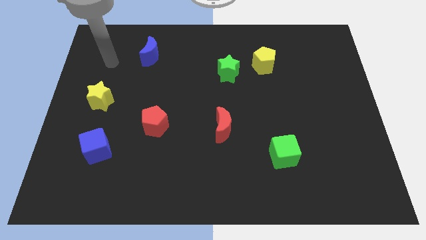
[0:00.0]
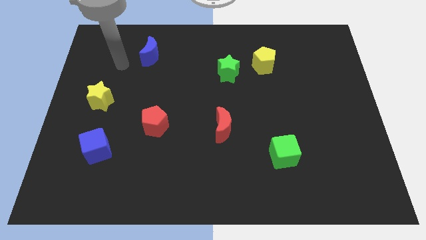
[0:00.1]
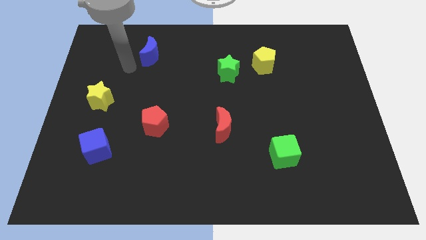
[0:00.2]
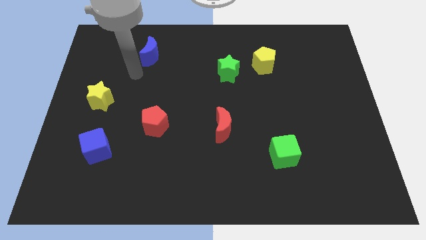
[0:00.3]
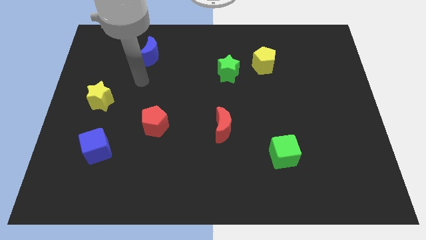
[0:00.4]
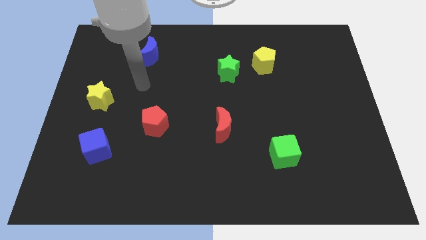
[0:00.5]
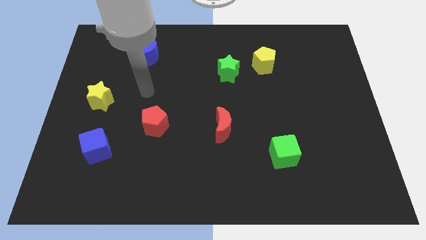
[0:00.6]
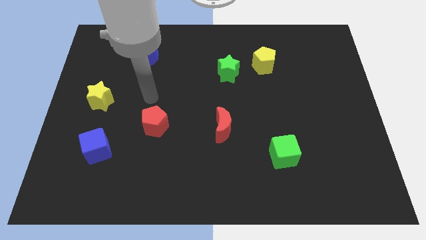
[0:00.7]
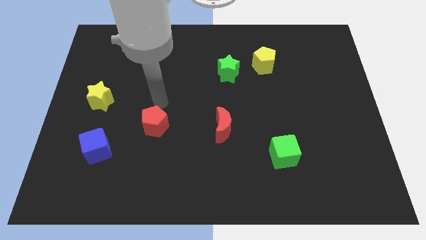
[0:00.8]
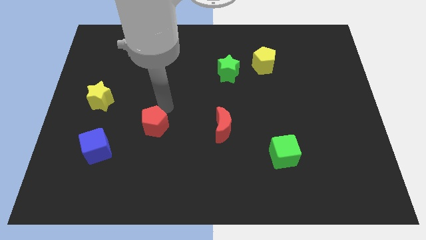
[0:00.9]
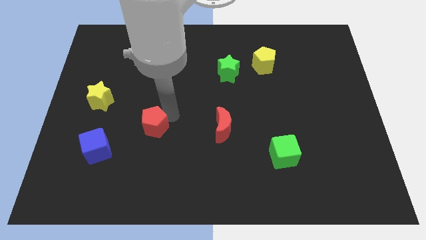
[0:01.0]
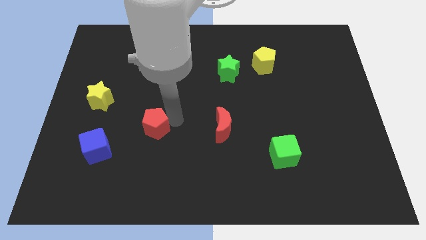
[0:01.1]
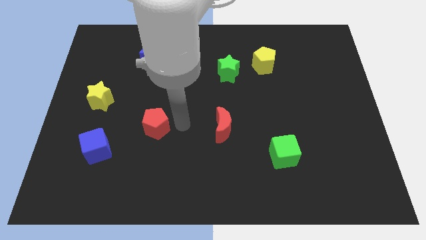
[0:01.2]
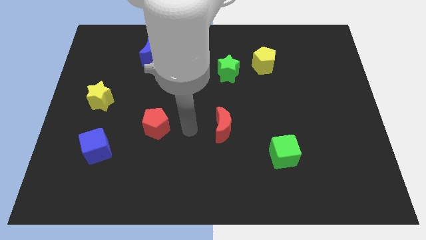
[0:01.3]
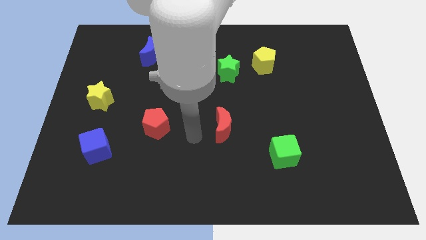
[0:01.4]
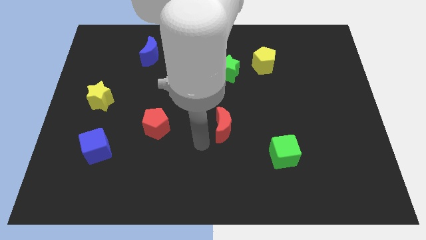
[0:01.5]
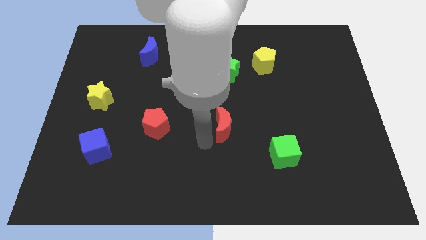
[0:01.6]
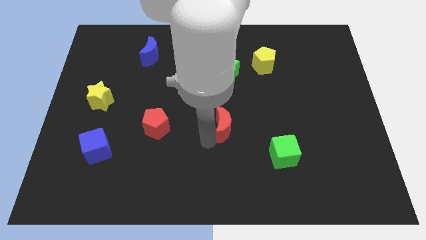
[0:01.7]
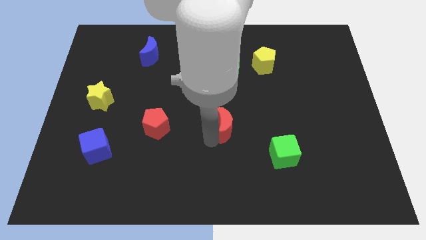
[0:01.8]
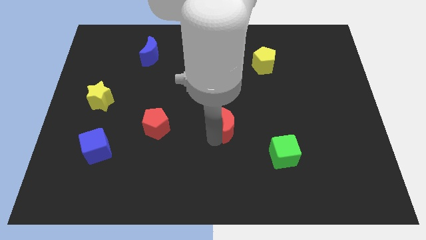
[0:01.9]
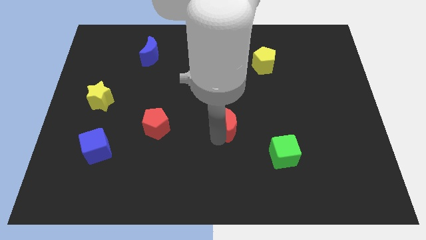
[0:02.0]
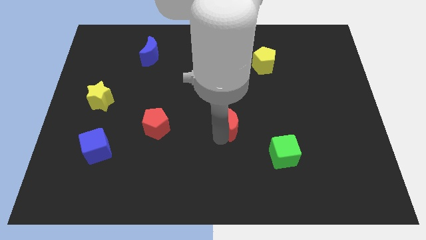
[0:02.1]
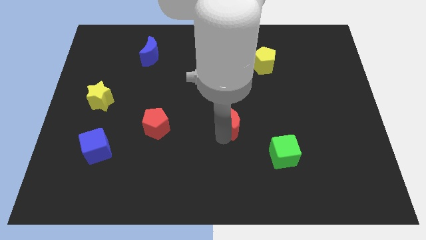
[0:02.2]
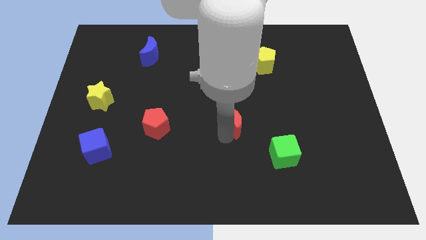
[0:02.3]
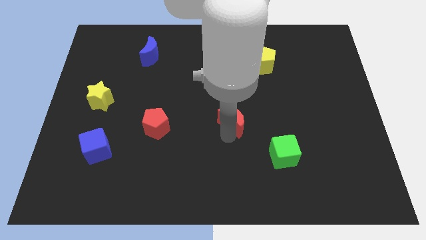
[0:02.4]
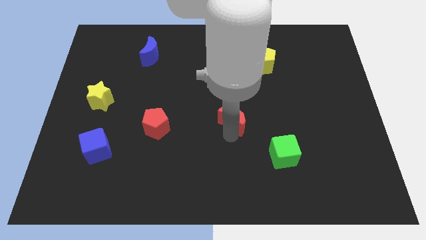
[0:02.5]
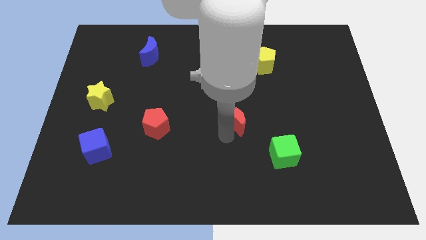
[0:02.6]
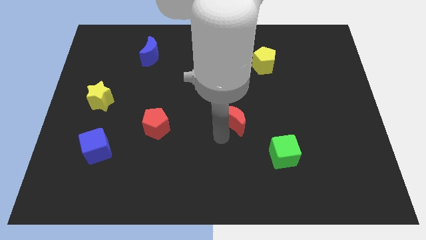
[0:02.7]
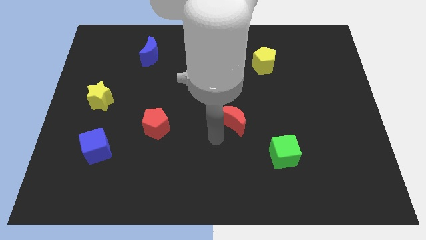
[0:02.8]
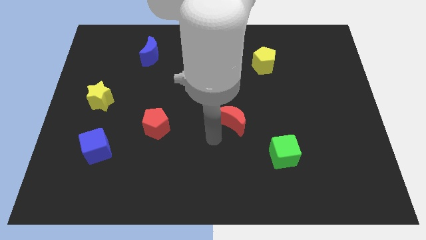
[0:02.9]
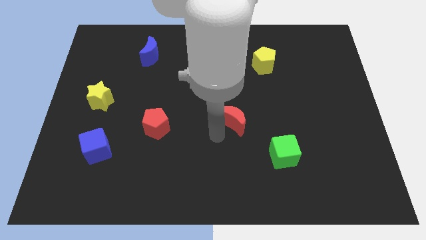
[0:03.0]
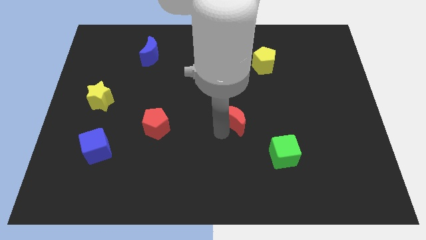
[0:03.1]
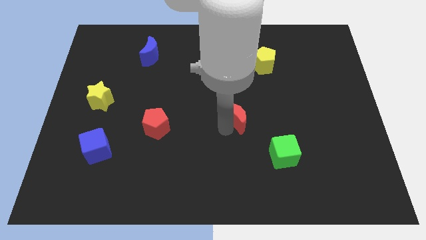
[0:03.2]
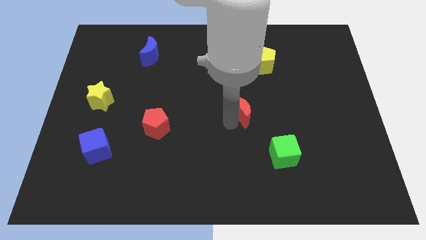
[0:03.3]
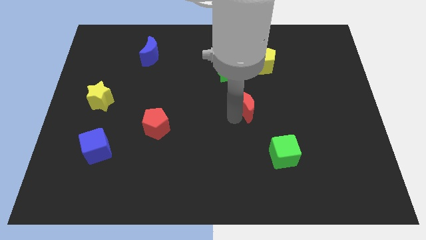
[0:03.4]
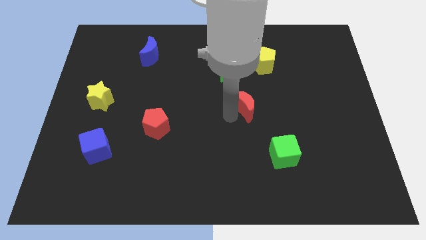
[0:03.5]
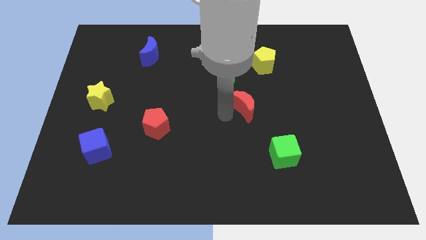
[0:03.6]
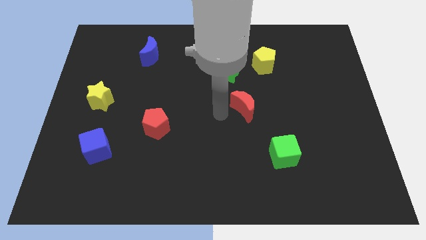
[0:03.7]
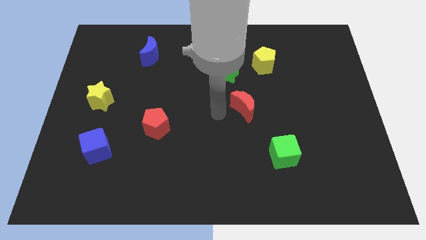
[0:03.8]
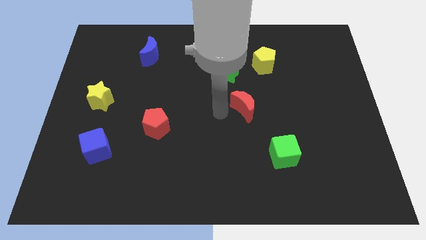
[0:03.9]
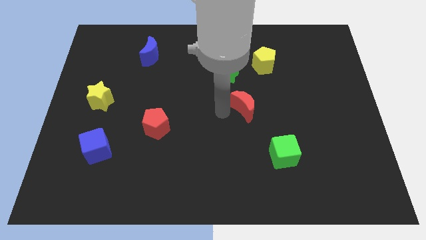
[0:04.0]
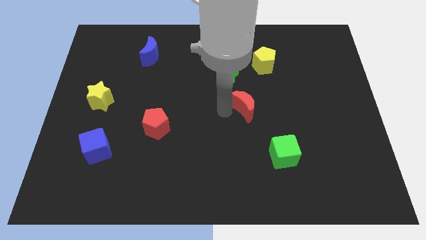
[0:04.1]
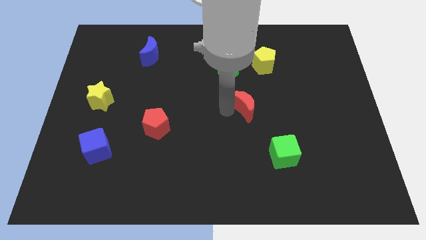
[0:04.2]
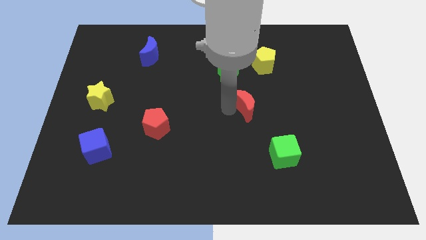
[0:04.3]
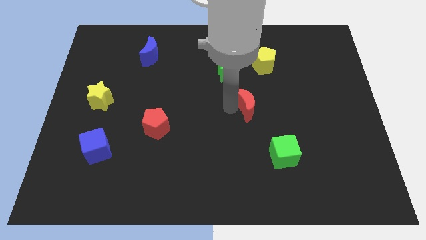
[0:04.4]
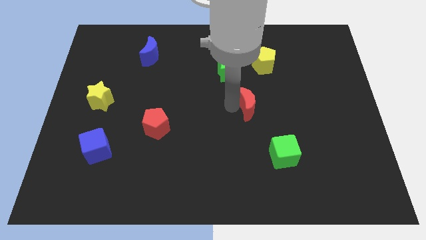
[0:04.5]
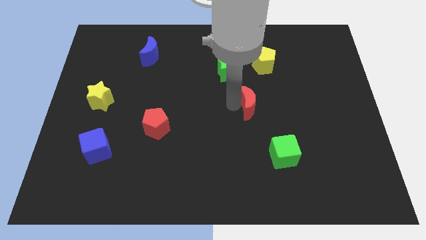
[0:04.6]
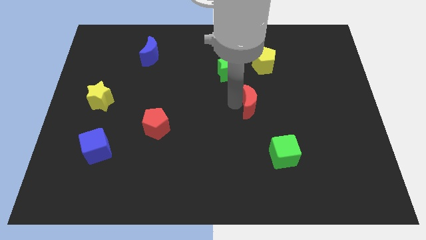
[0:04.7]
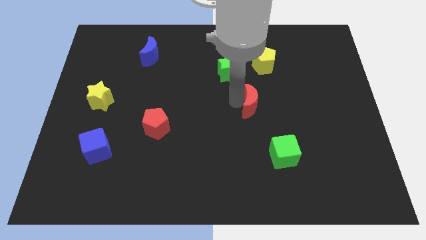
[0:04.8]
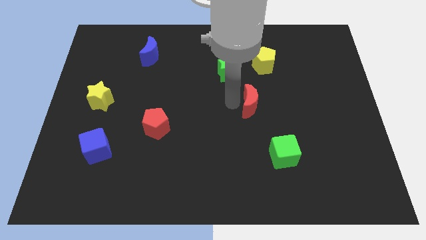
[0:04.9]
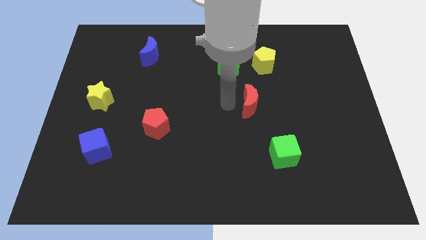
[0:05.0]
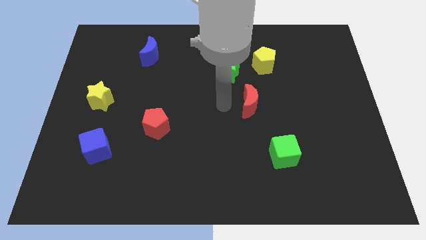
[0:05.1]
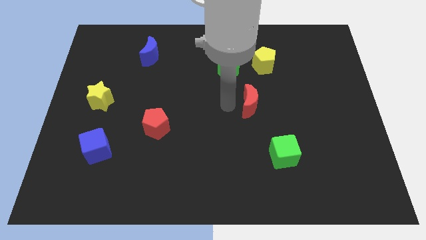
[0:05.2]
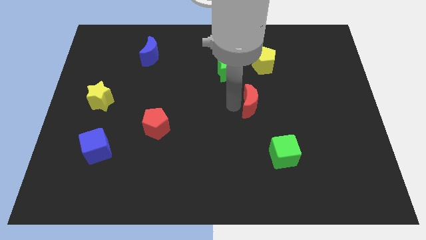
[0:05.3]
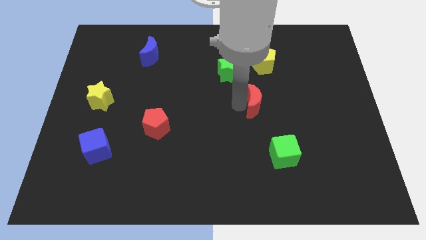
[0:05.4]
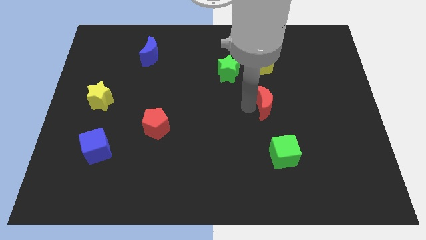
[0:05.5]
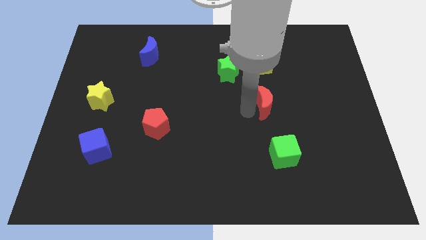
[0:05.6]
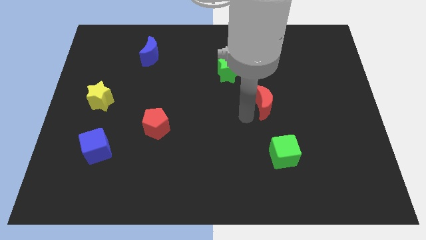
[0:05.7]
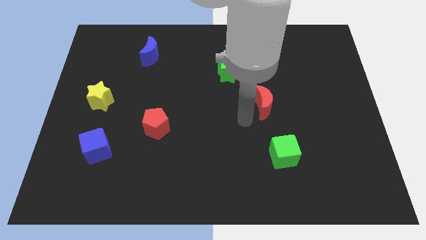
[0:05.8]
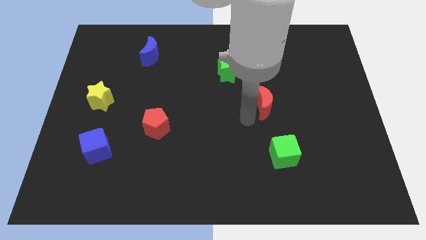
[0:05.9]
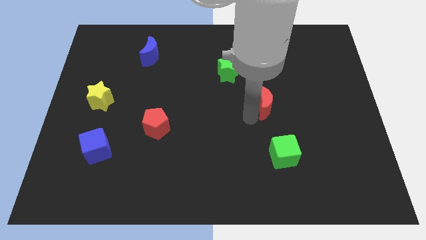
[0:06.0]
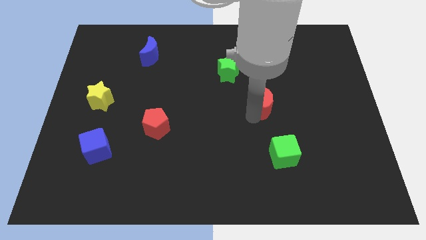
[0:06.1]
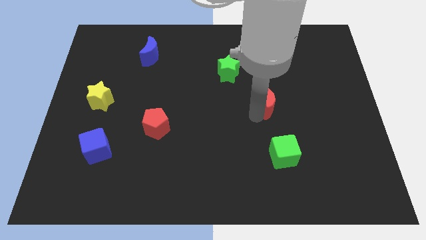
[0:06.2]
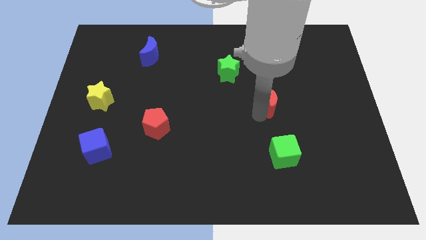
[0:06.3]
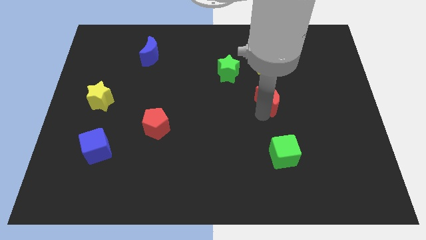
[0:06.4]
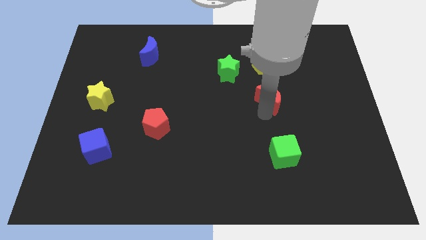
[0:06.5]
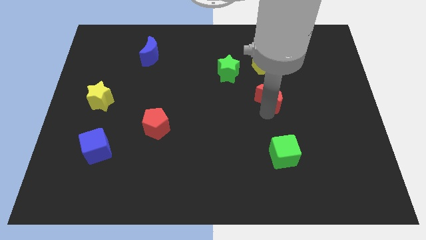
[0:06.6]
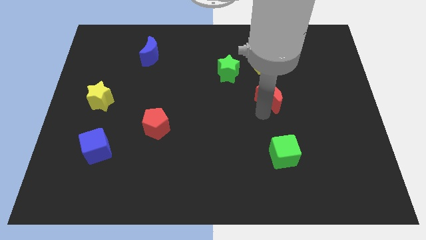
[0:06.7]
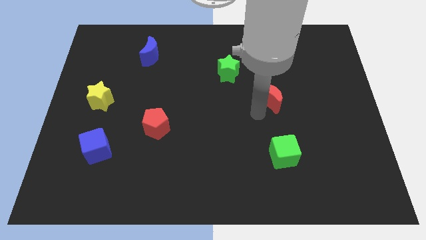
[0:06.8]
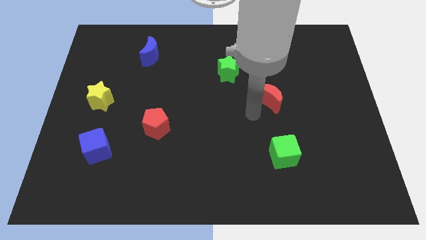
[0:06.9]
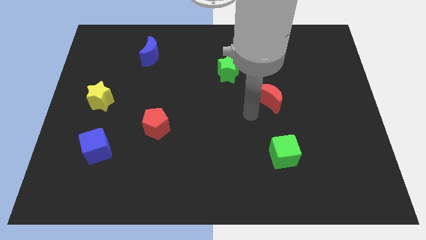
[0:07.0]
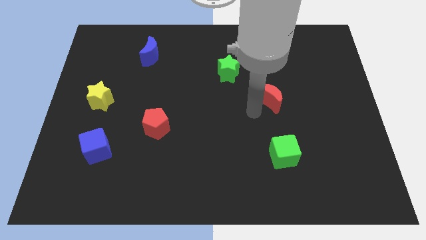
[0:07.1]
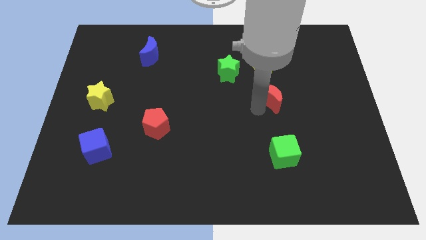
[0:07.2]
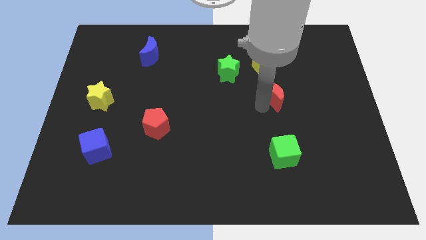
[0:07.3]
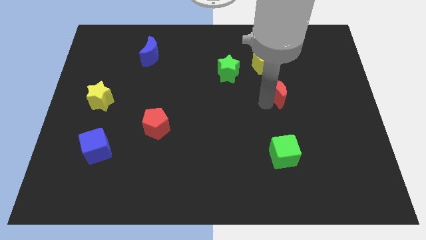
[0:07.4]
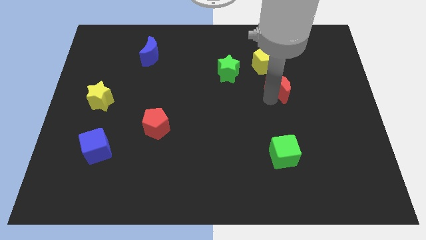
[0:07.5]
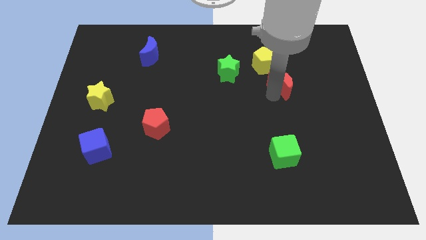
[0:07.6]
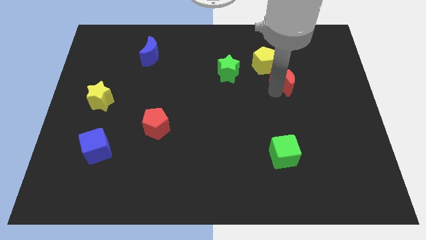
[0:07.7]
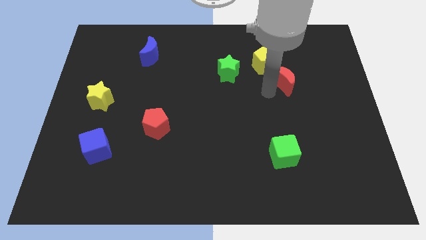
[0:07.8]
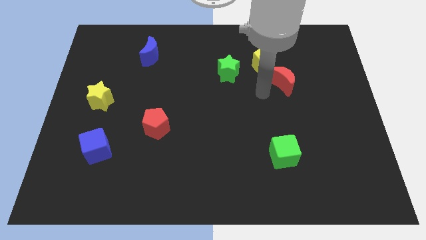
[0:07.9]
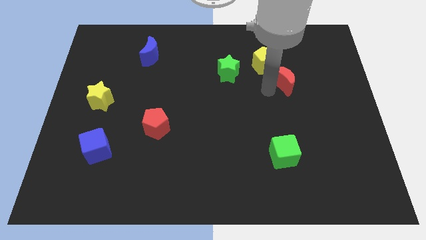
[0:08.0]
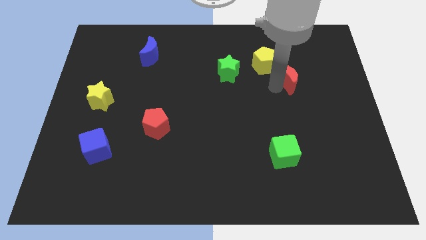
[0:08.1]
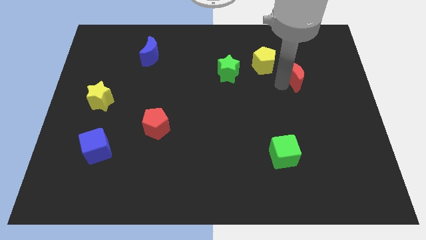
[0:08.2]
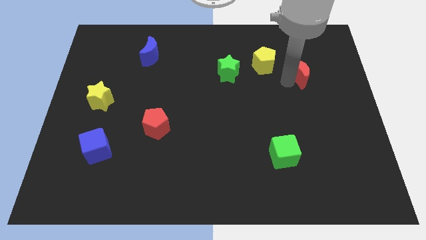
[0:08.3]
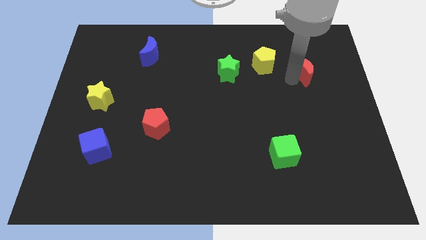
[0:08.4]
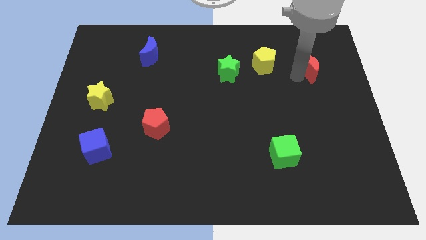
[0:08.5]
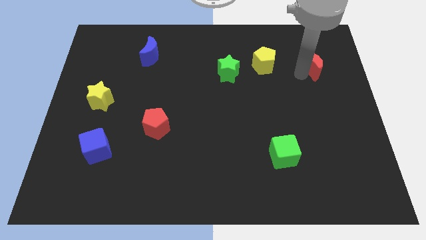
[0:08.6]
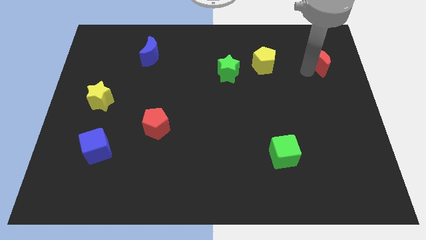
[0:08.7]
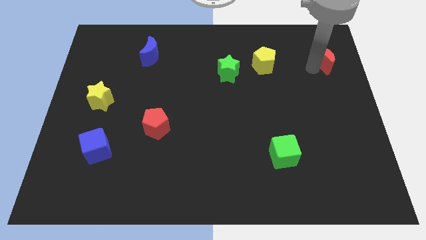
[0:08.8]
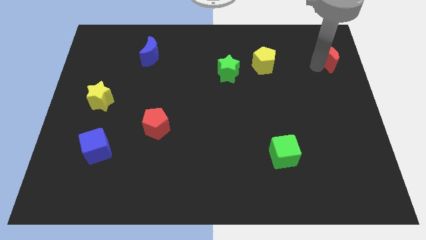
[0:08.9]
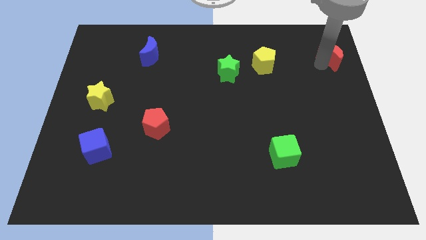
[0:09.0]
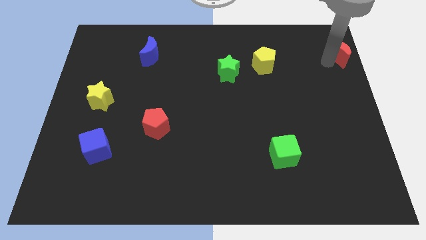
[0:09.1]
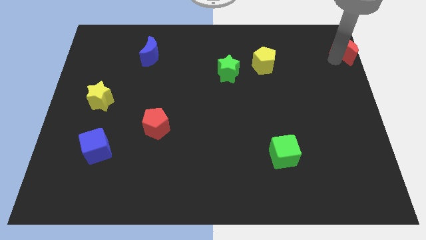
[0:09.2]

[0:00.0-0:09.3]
move the red moon to the top right of the board
